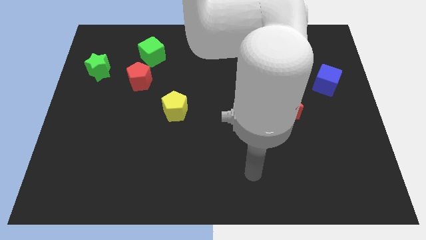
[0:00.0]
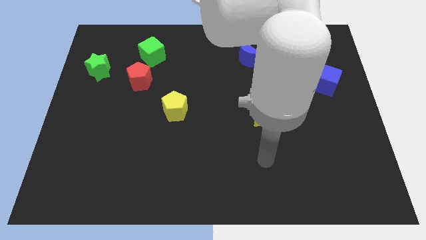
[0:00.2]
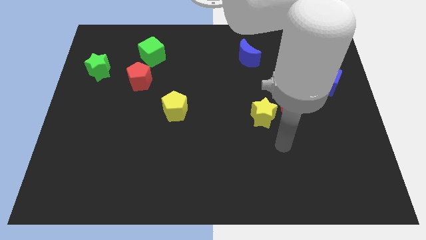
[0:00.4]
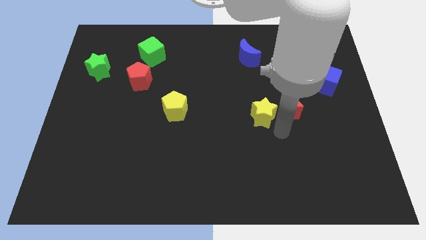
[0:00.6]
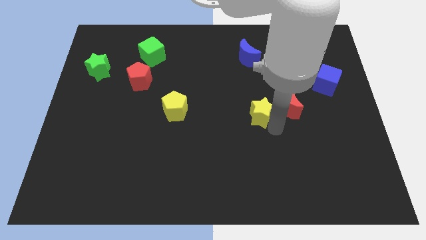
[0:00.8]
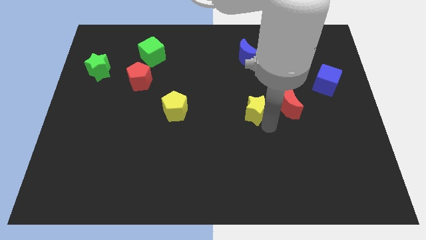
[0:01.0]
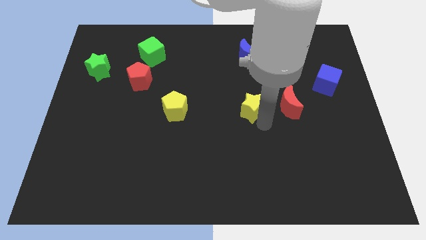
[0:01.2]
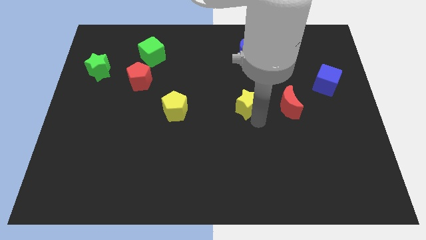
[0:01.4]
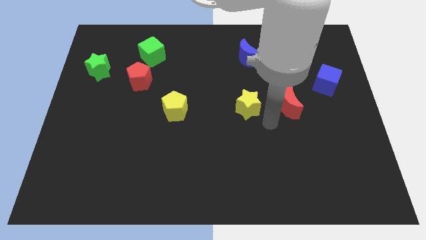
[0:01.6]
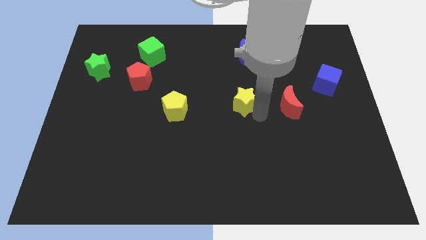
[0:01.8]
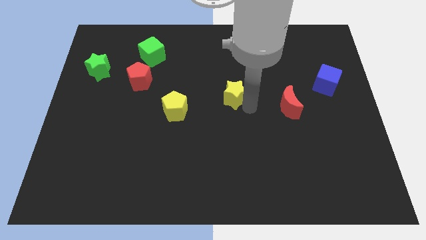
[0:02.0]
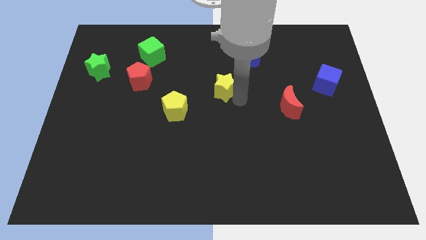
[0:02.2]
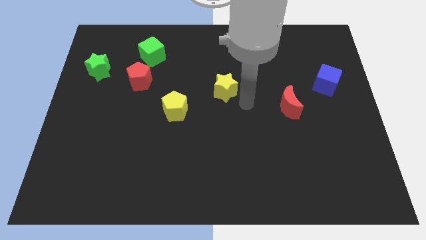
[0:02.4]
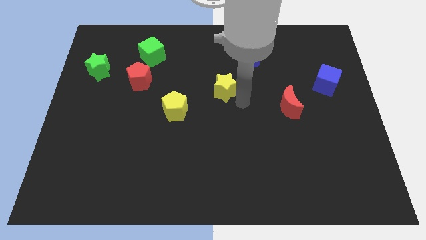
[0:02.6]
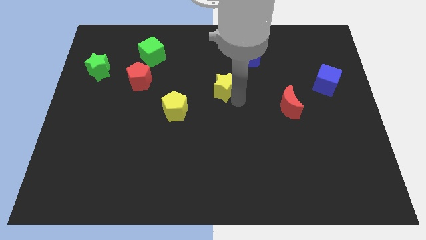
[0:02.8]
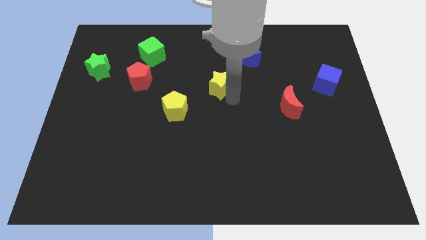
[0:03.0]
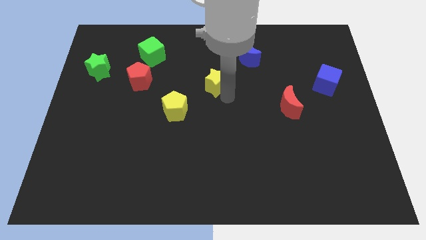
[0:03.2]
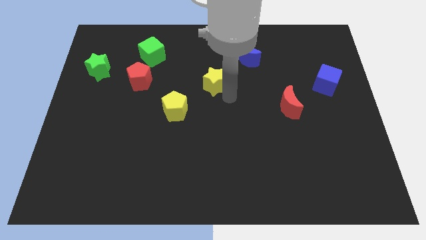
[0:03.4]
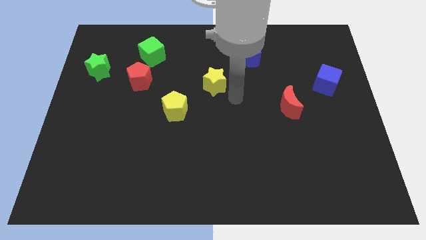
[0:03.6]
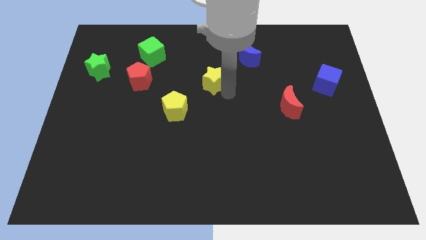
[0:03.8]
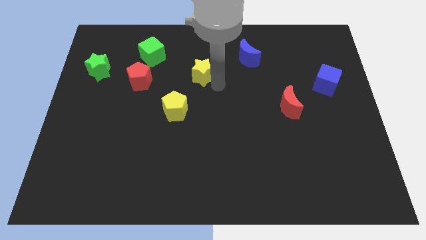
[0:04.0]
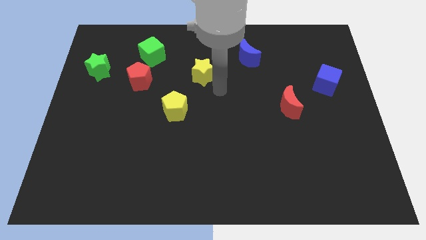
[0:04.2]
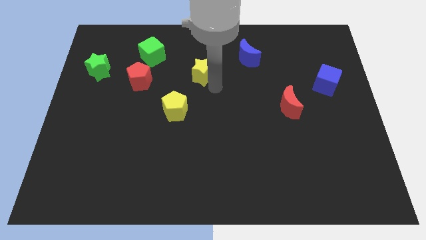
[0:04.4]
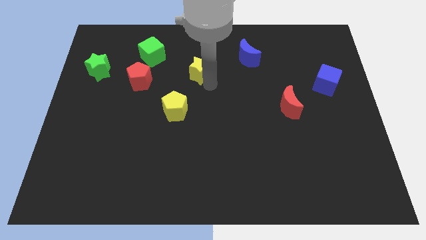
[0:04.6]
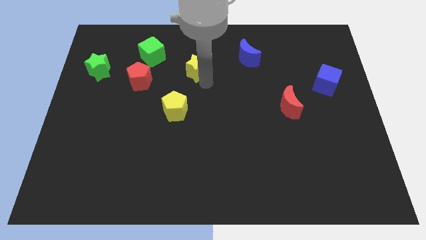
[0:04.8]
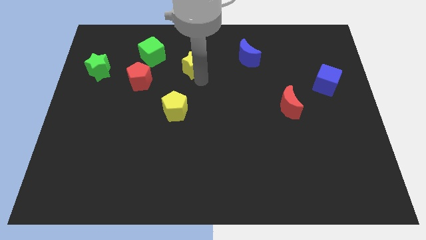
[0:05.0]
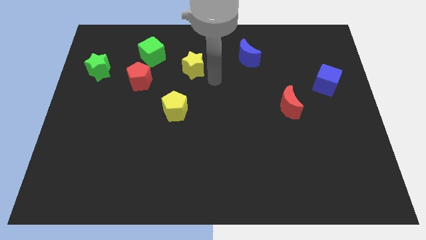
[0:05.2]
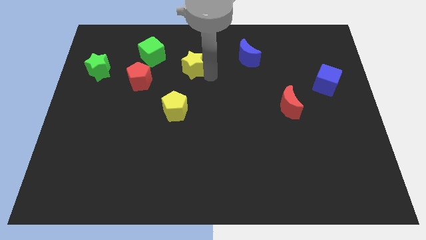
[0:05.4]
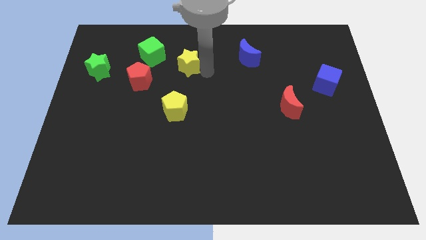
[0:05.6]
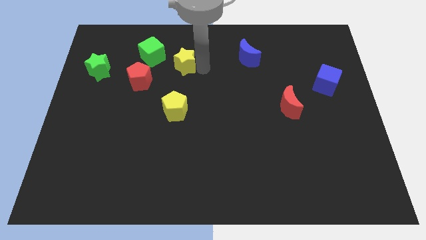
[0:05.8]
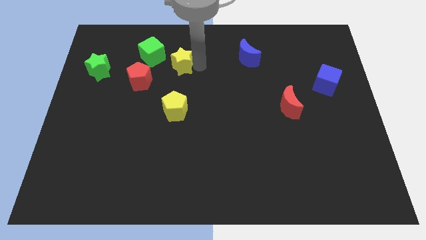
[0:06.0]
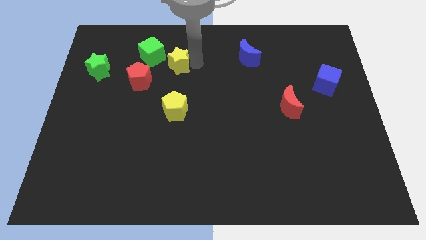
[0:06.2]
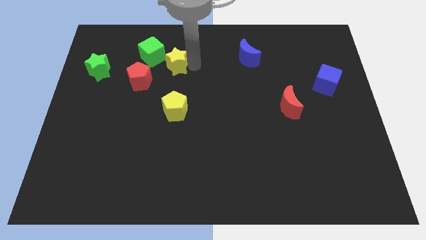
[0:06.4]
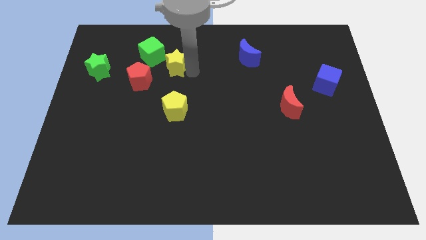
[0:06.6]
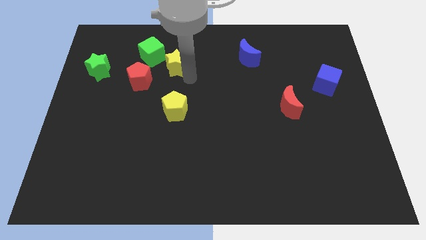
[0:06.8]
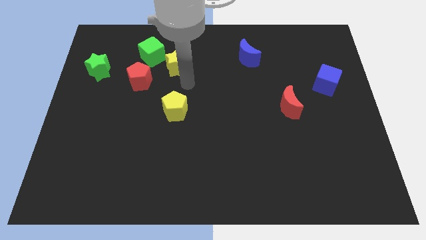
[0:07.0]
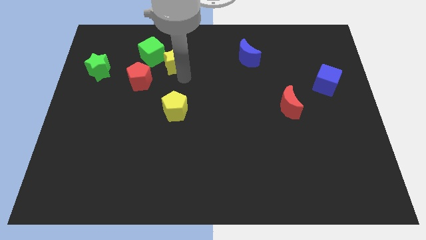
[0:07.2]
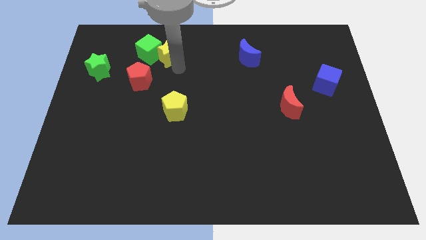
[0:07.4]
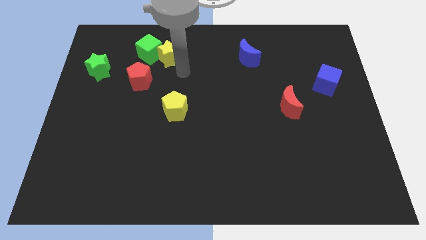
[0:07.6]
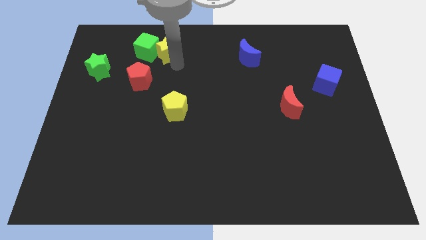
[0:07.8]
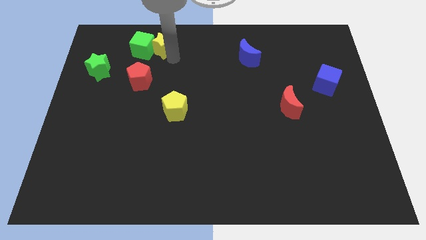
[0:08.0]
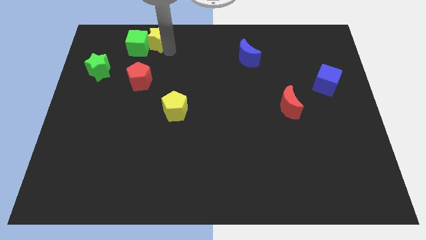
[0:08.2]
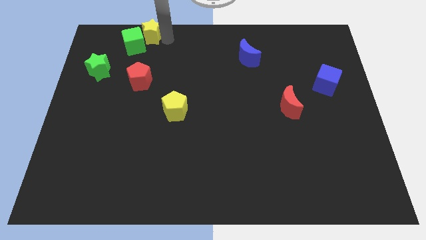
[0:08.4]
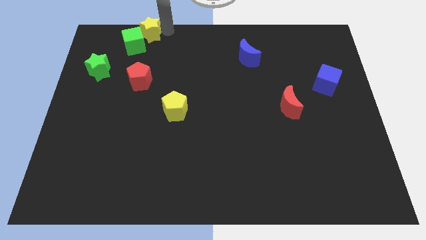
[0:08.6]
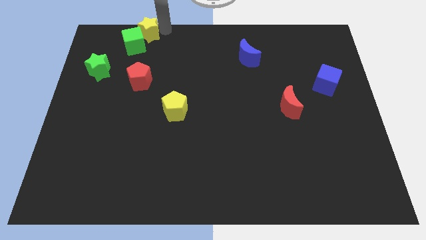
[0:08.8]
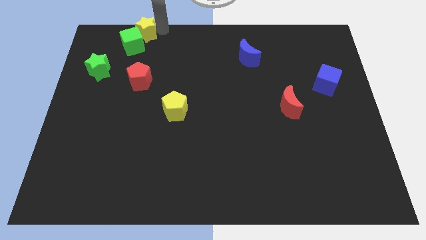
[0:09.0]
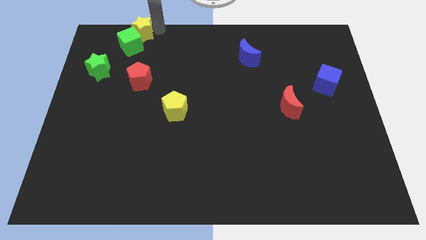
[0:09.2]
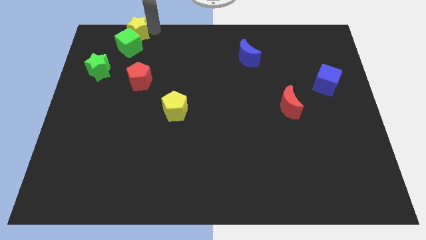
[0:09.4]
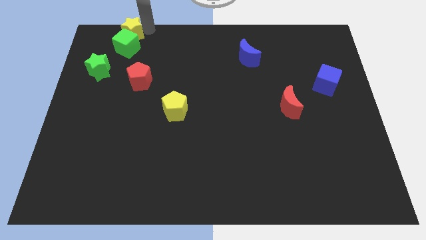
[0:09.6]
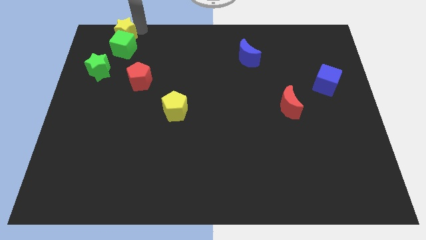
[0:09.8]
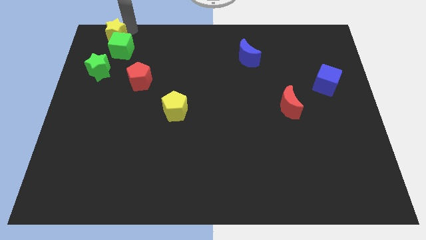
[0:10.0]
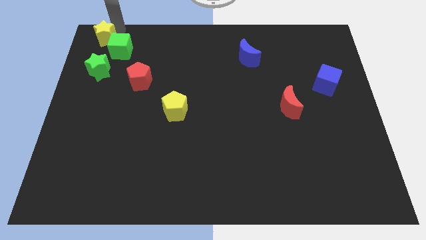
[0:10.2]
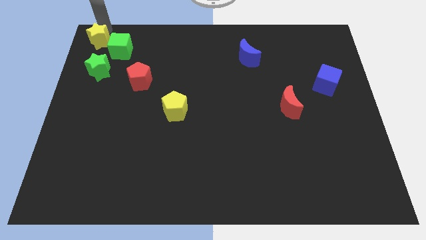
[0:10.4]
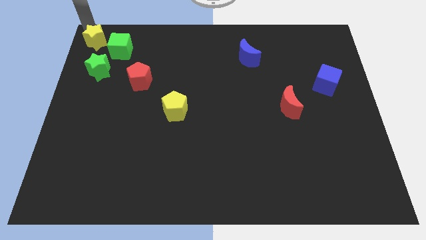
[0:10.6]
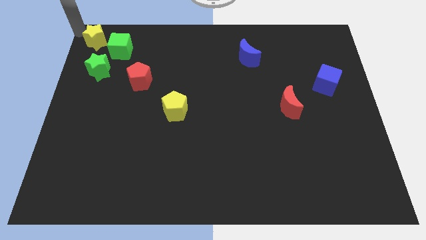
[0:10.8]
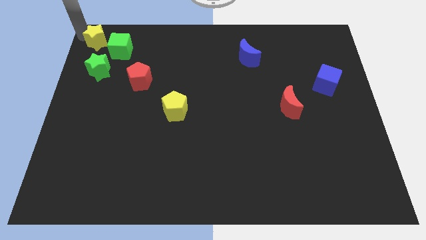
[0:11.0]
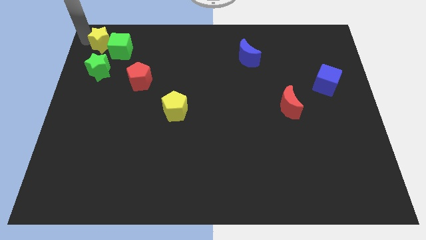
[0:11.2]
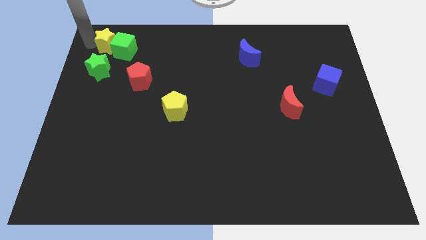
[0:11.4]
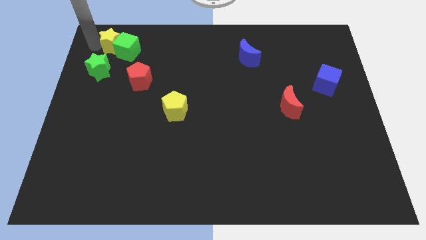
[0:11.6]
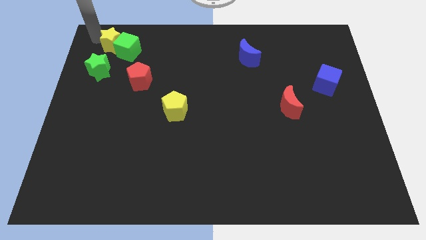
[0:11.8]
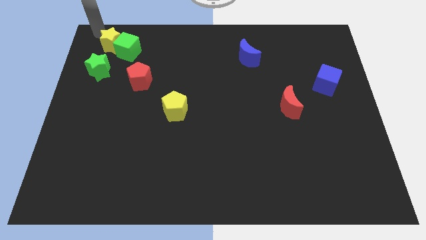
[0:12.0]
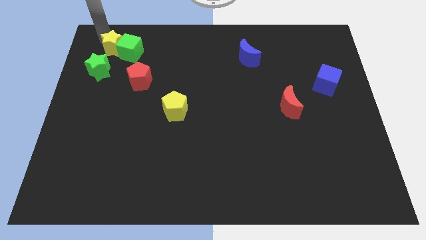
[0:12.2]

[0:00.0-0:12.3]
slide the yellow star diagonally up and to the right of the green star

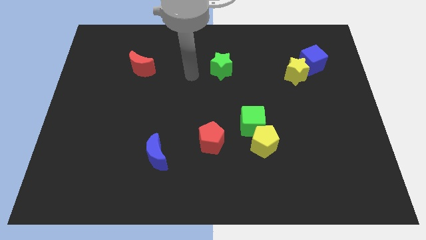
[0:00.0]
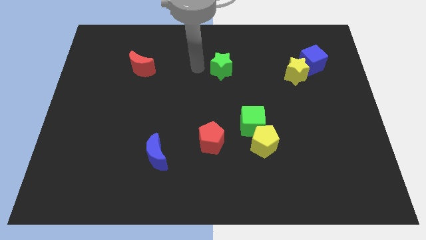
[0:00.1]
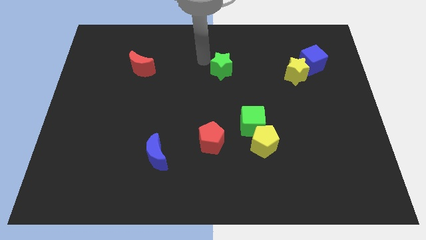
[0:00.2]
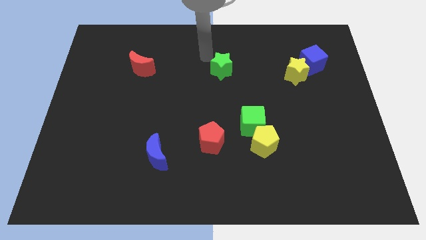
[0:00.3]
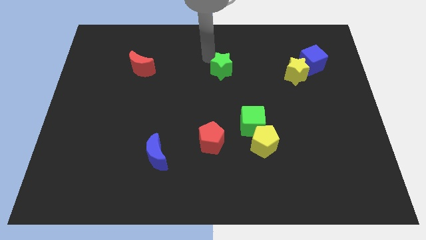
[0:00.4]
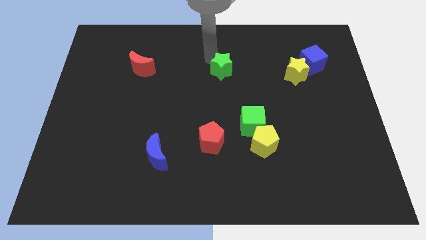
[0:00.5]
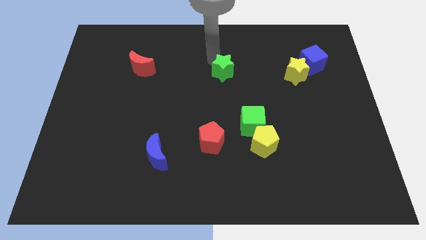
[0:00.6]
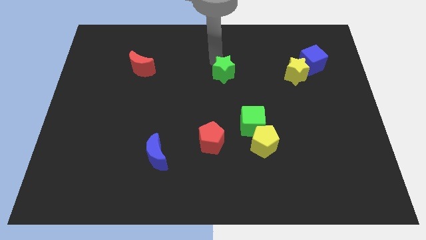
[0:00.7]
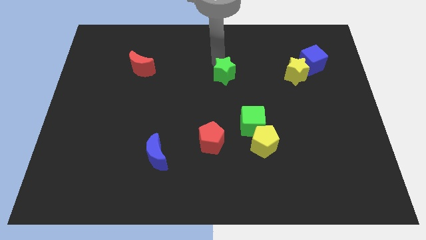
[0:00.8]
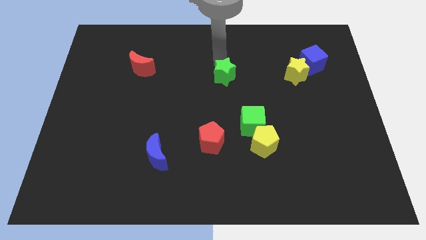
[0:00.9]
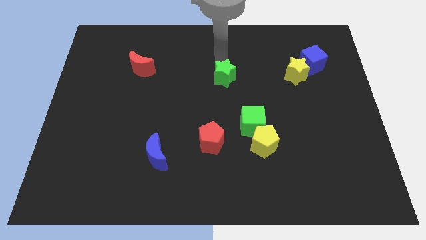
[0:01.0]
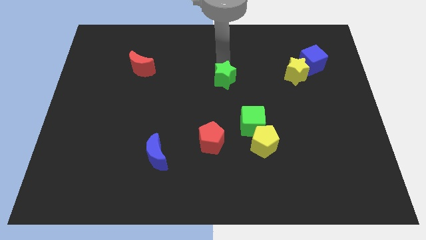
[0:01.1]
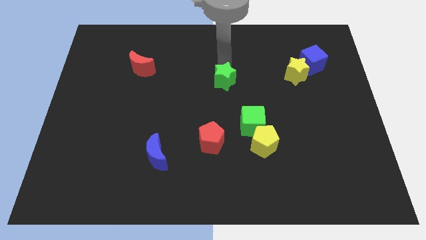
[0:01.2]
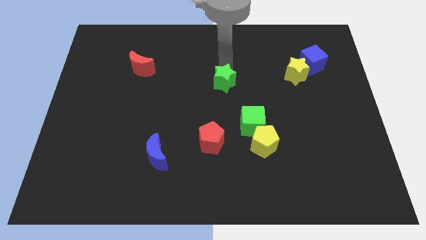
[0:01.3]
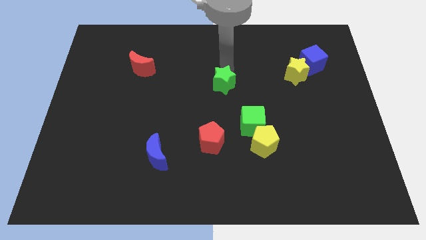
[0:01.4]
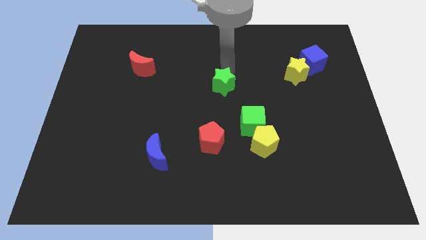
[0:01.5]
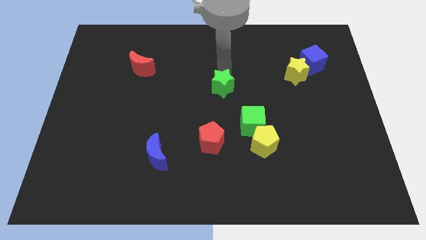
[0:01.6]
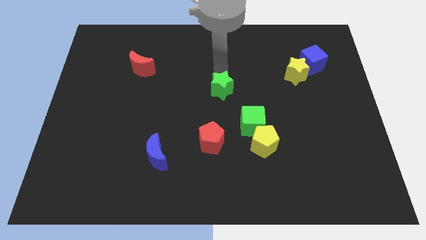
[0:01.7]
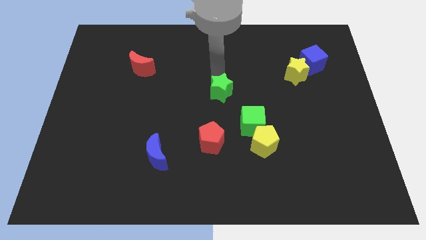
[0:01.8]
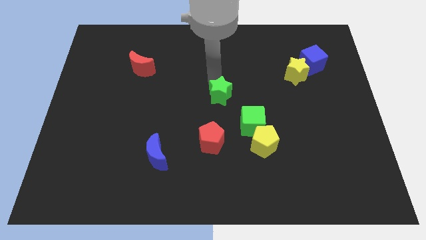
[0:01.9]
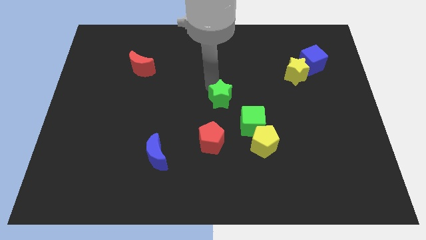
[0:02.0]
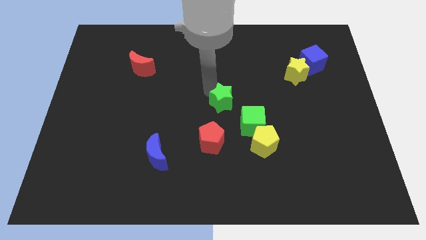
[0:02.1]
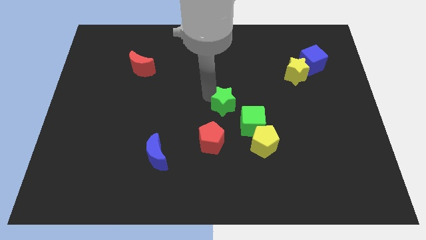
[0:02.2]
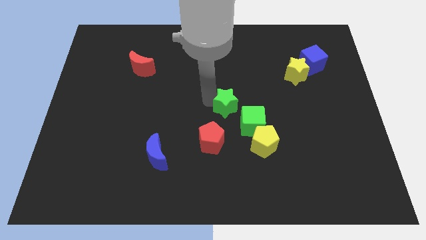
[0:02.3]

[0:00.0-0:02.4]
put the green star to the top right side of the red pentagon
